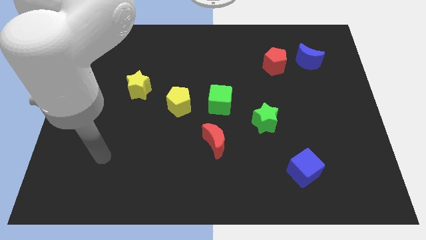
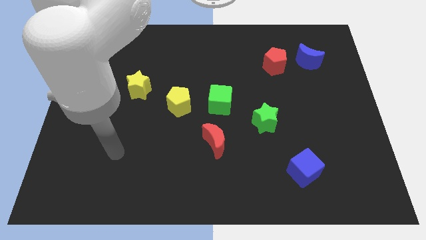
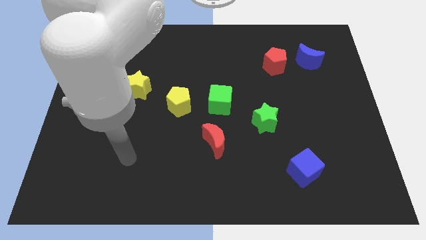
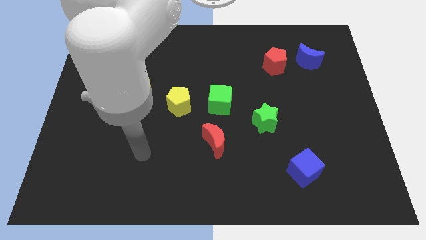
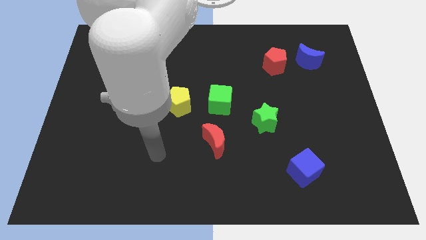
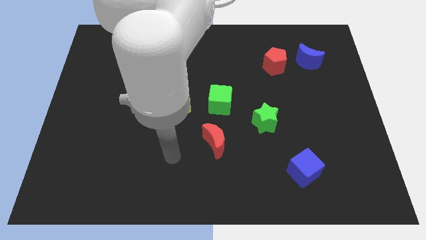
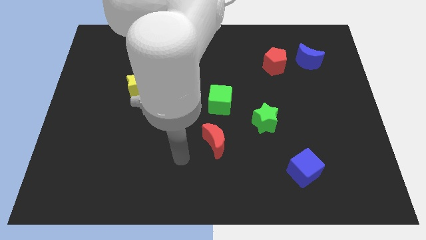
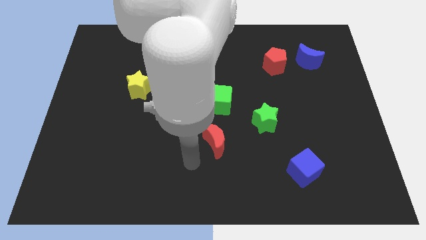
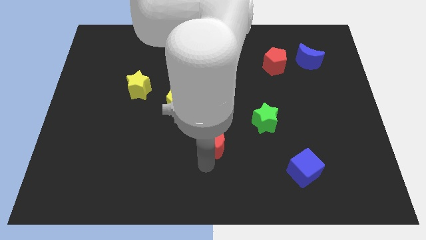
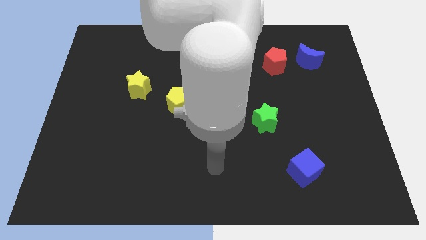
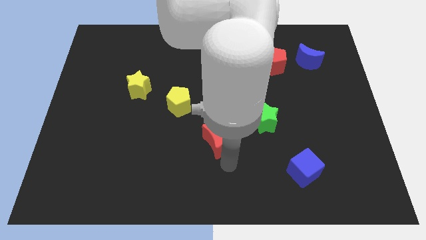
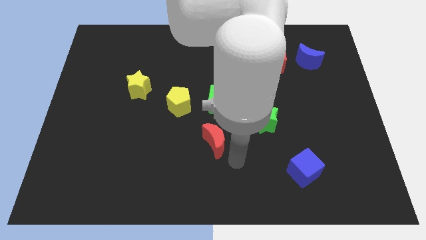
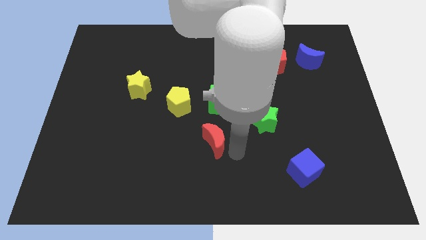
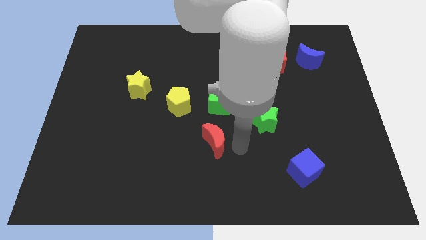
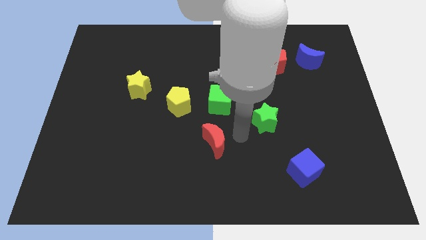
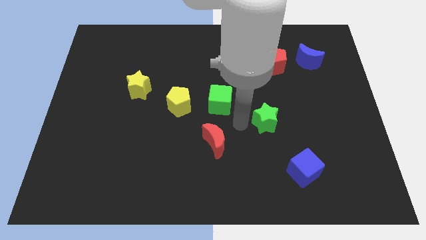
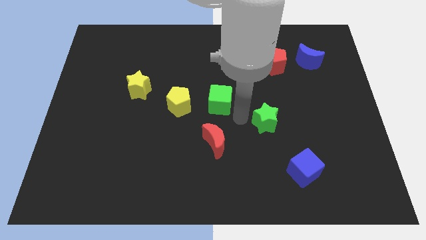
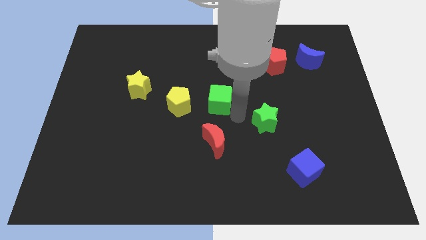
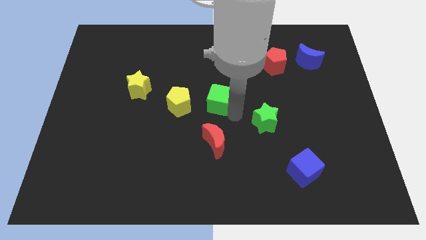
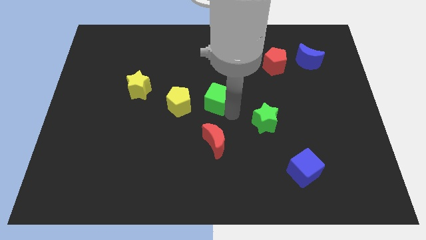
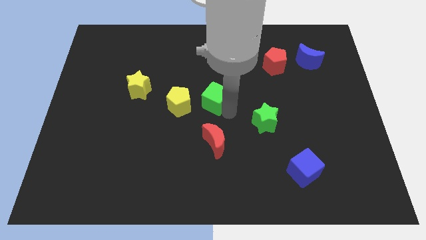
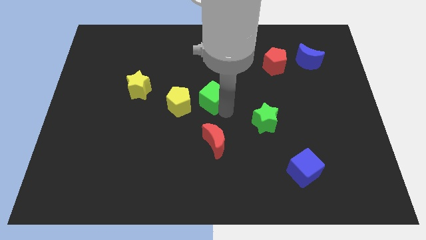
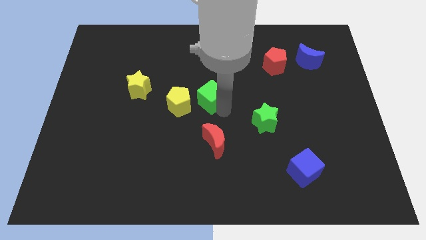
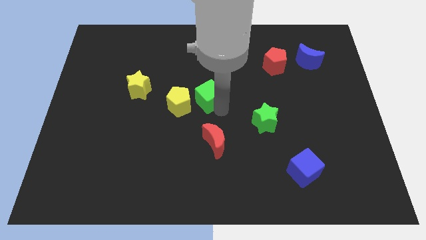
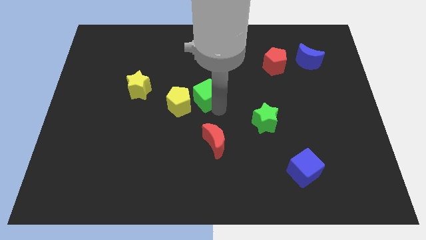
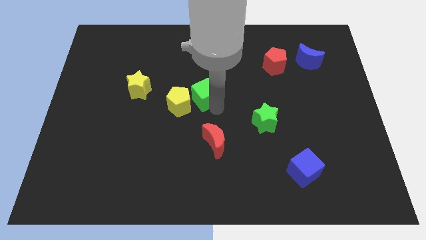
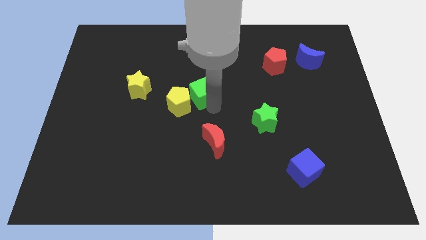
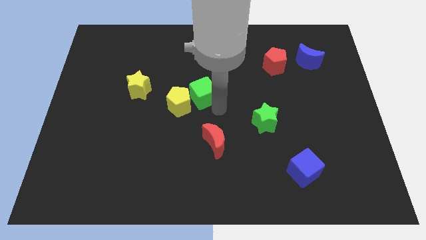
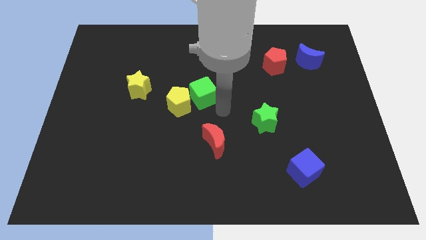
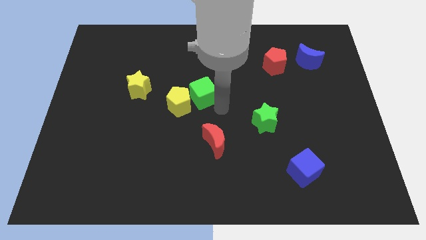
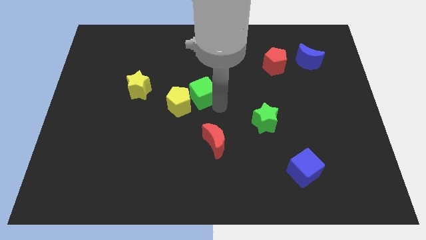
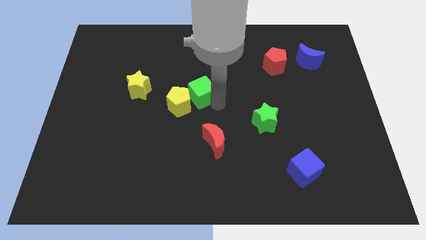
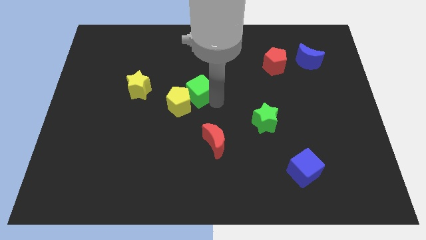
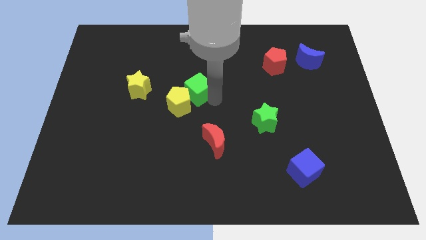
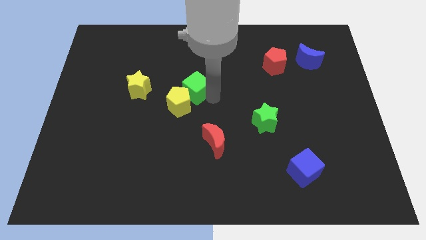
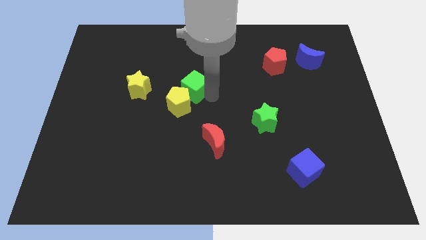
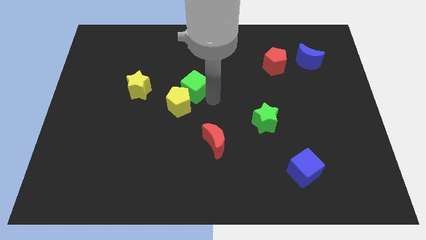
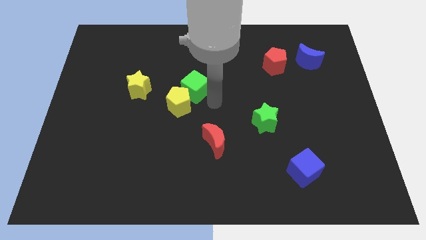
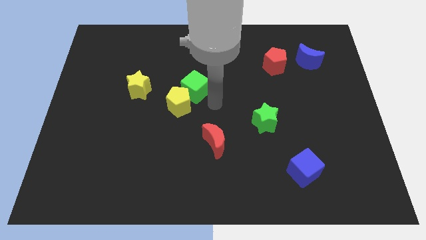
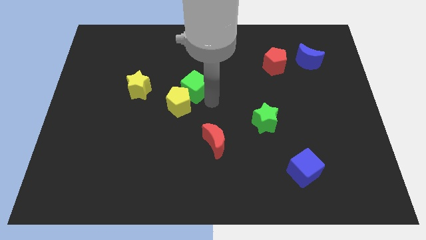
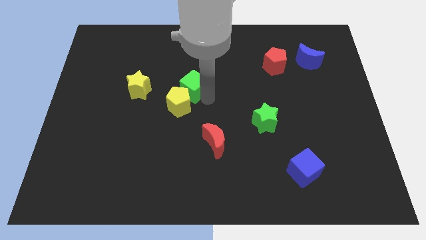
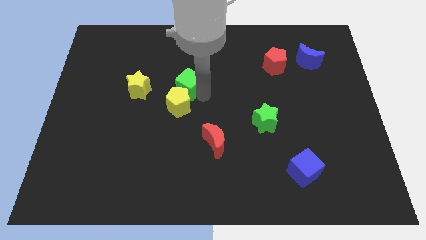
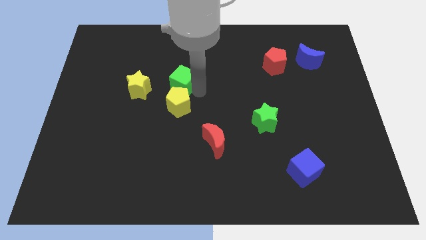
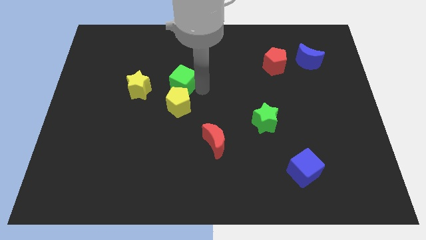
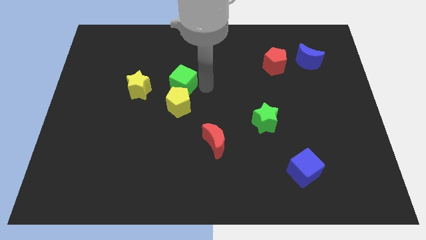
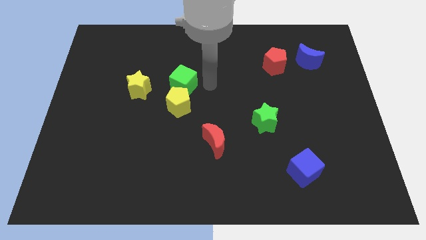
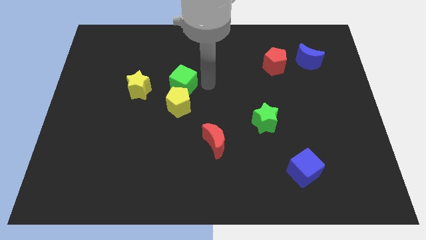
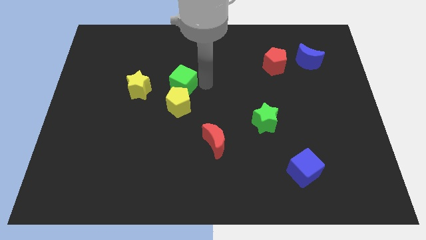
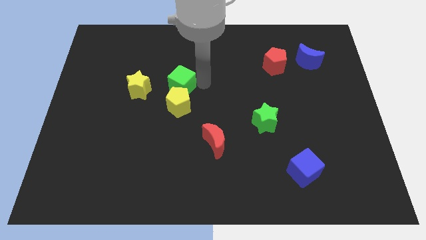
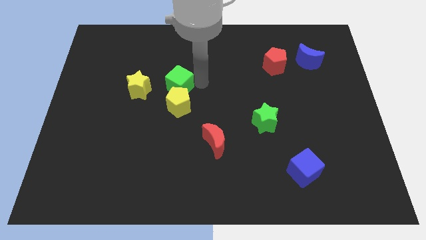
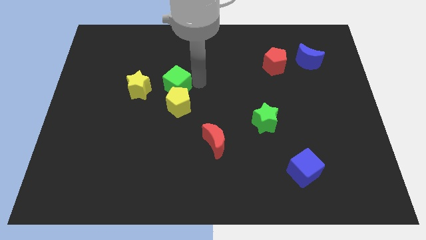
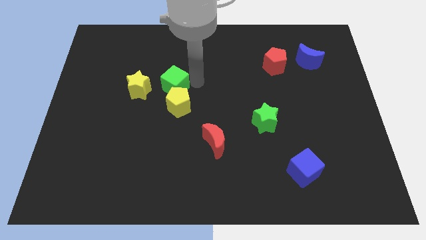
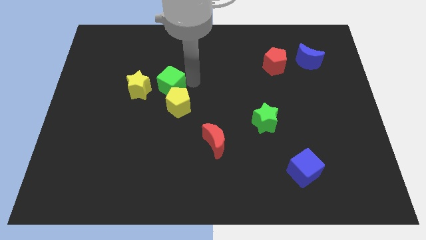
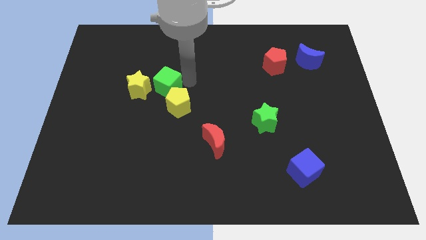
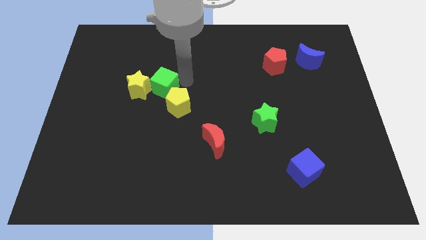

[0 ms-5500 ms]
slide the green cube to the yellow star

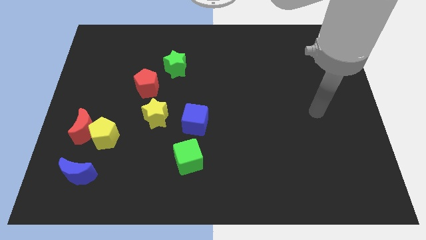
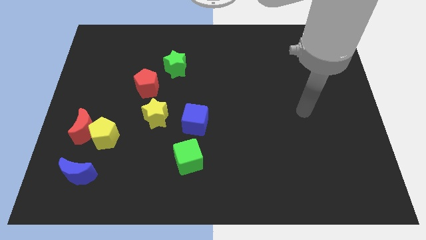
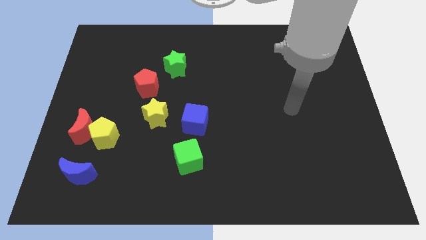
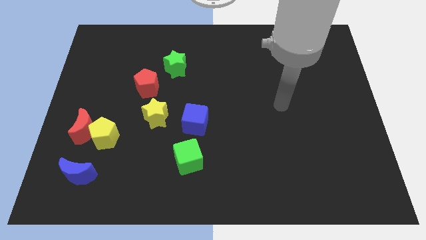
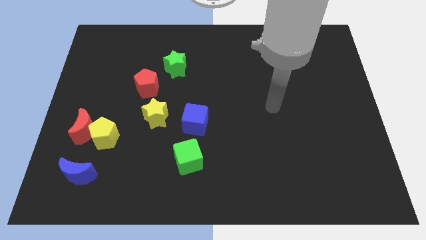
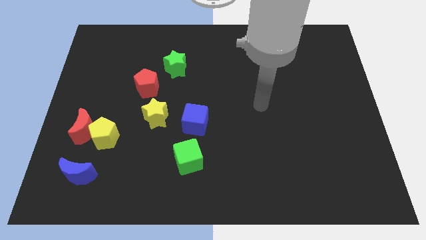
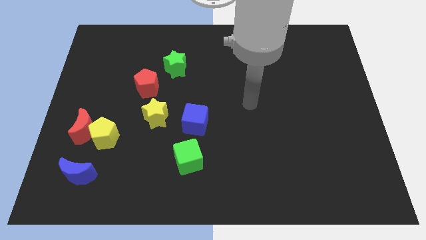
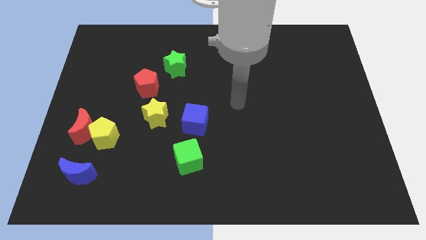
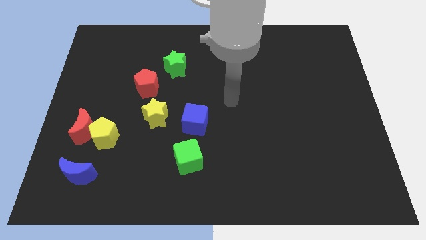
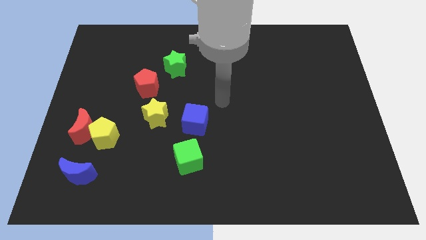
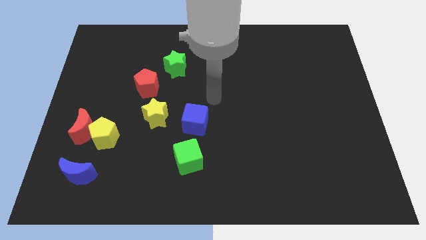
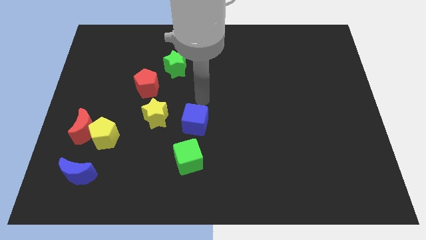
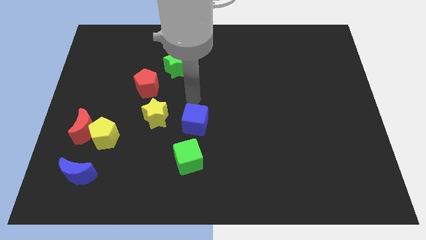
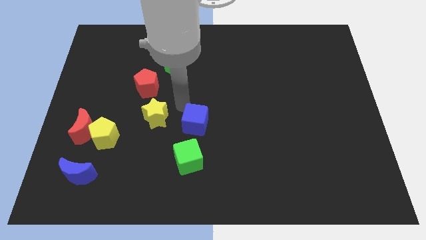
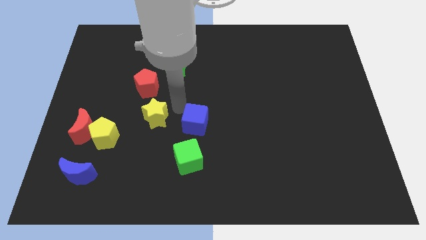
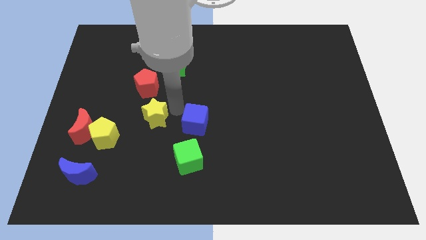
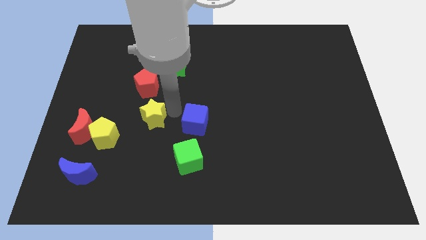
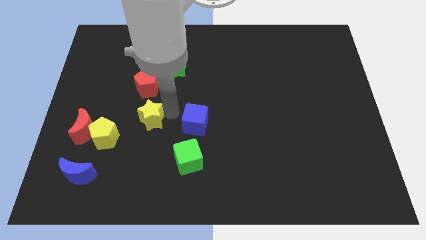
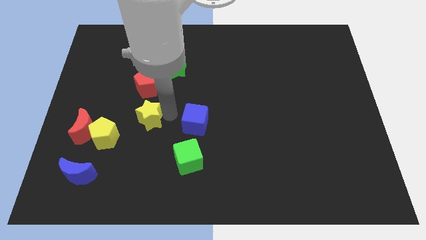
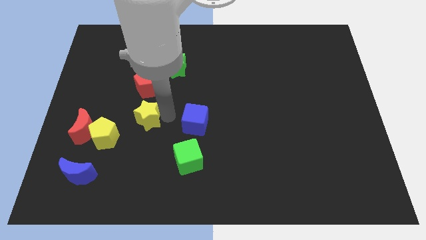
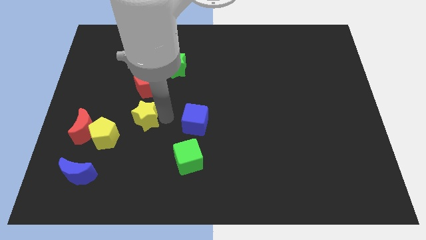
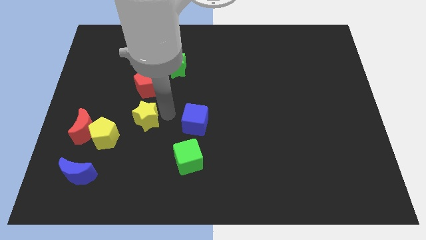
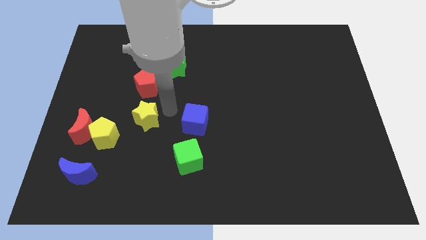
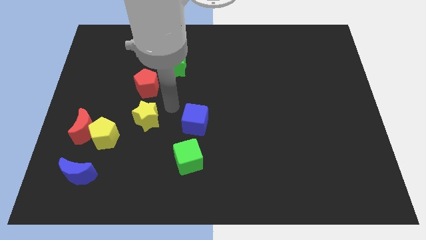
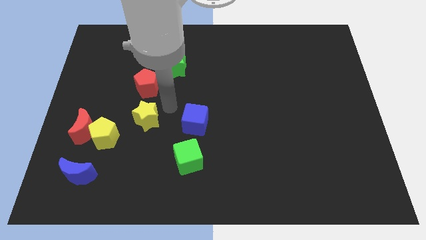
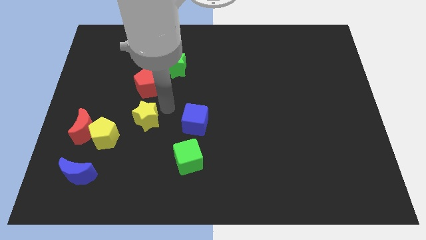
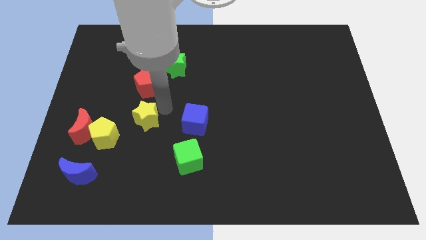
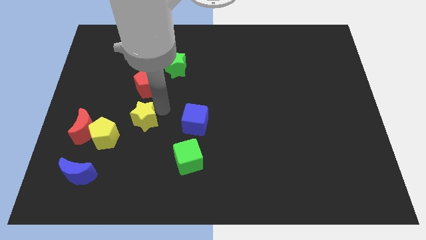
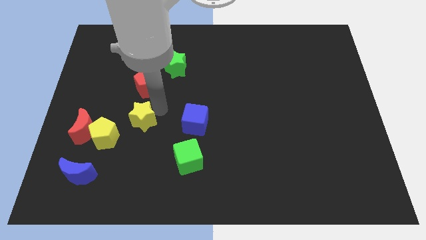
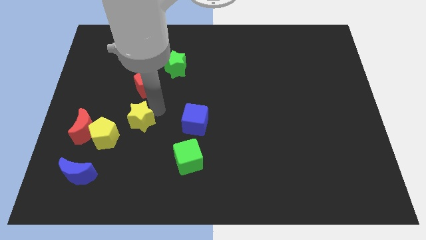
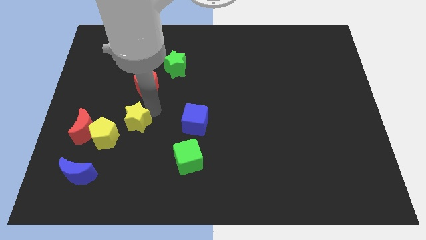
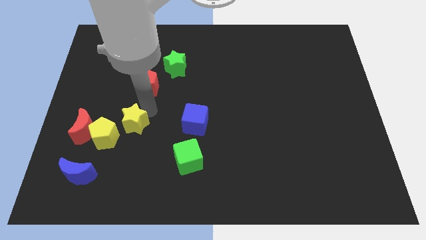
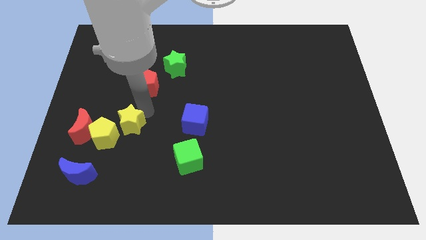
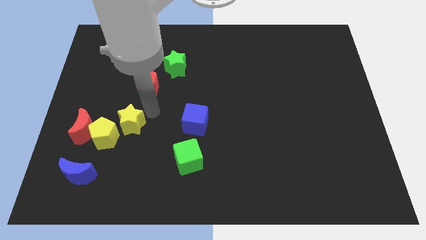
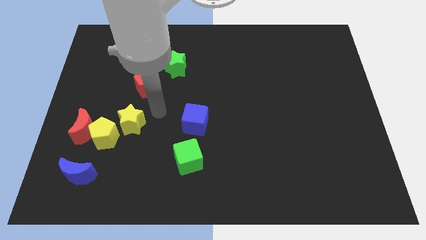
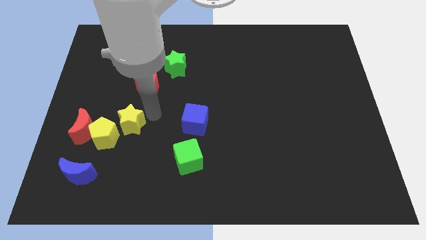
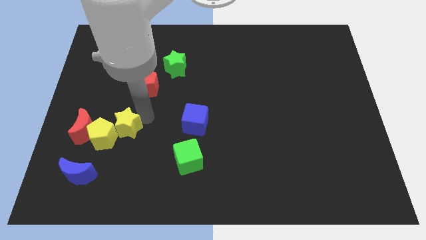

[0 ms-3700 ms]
push the yellow star to the yellow pentagon
